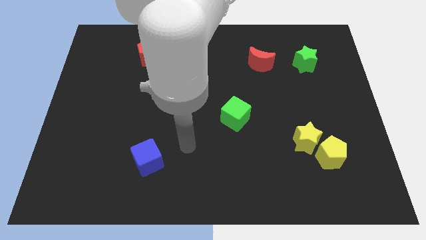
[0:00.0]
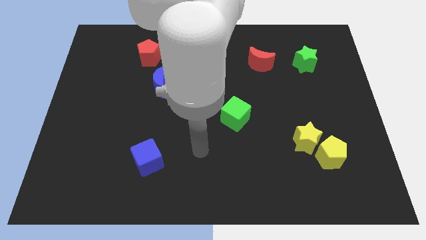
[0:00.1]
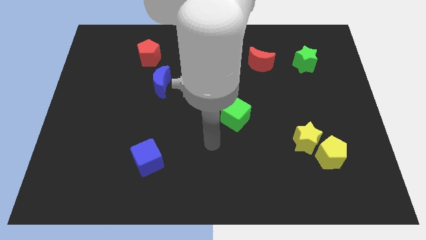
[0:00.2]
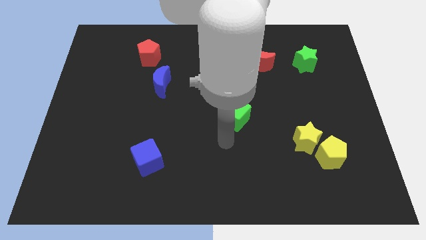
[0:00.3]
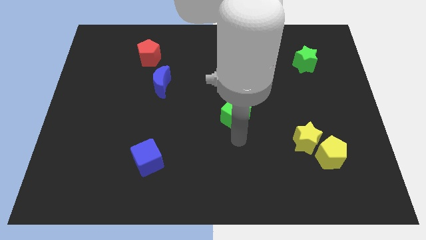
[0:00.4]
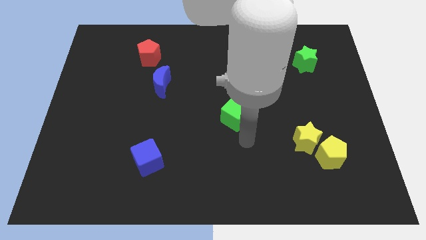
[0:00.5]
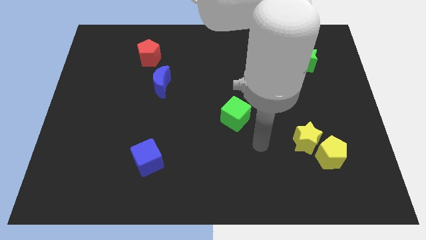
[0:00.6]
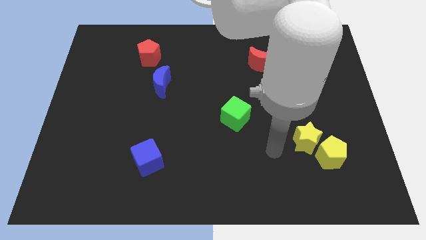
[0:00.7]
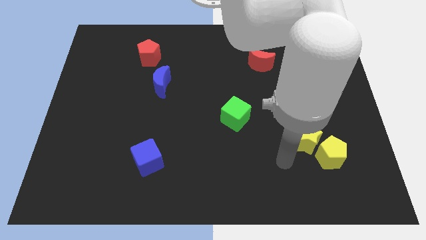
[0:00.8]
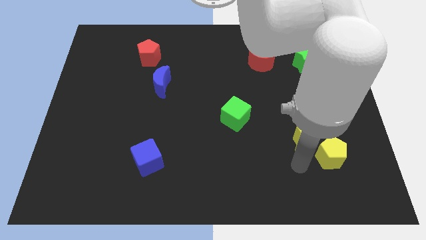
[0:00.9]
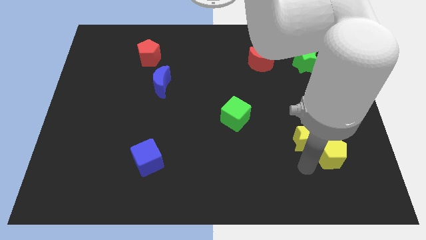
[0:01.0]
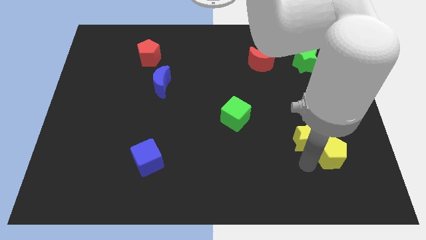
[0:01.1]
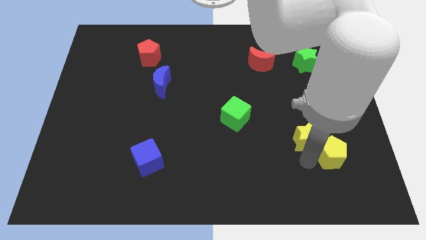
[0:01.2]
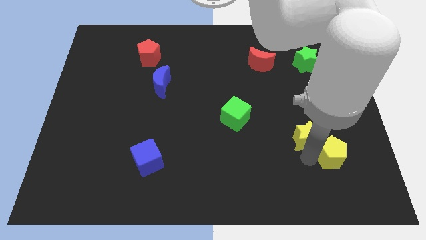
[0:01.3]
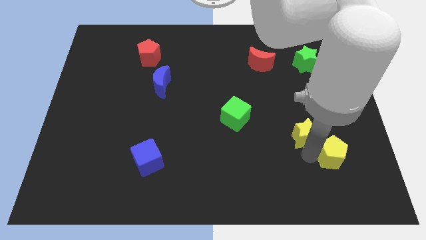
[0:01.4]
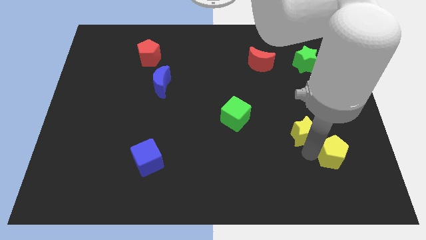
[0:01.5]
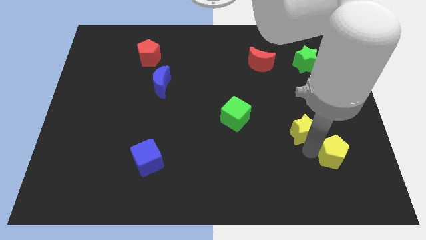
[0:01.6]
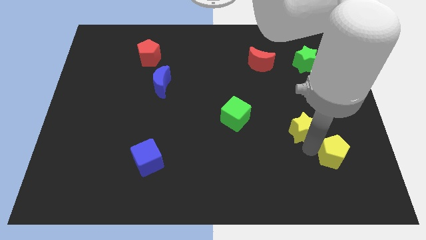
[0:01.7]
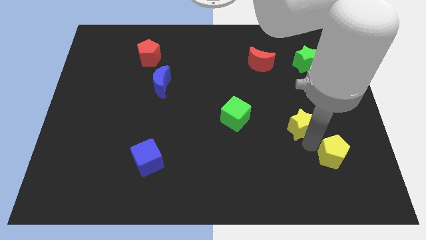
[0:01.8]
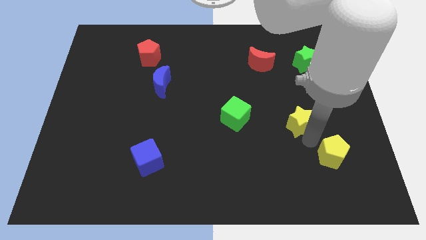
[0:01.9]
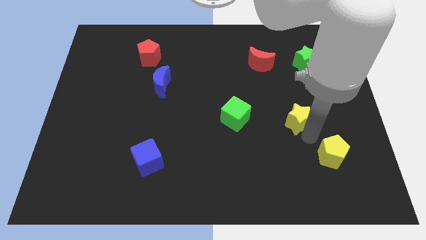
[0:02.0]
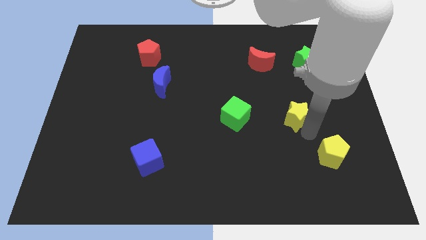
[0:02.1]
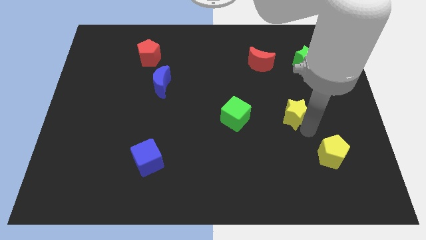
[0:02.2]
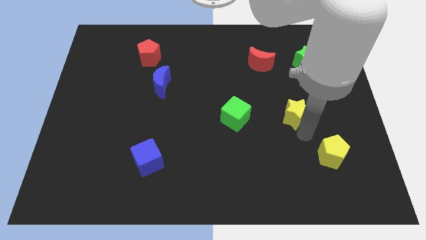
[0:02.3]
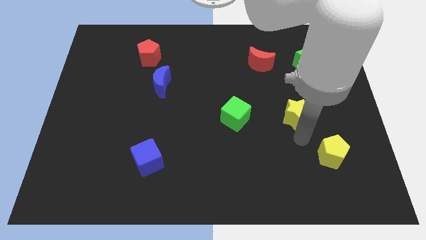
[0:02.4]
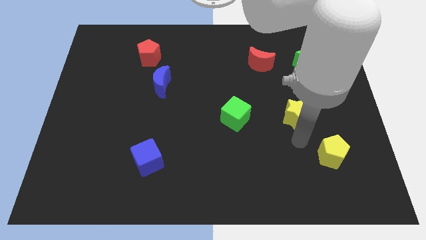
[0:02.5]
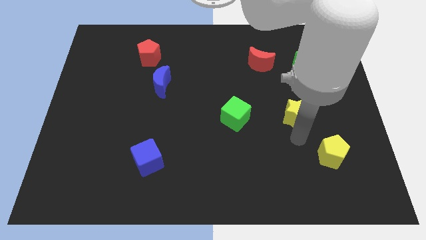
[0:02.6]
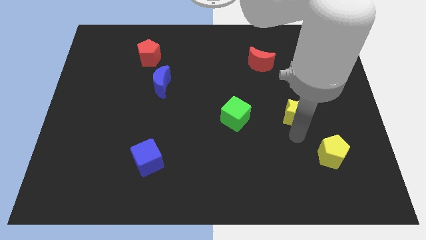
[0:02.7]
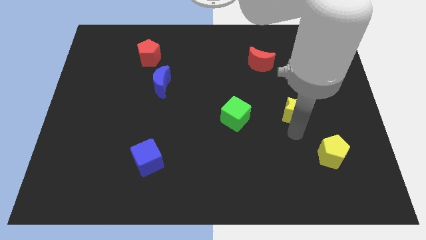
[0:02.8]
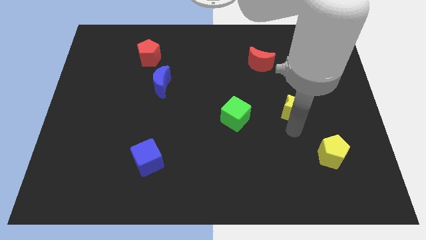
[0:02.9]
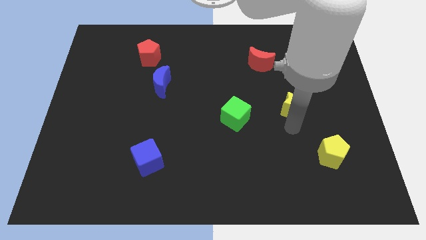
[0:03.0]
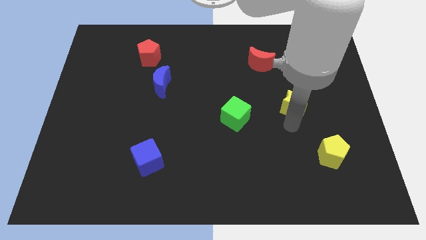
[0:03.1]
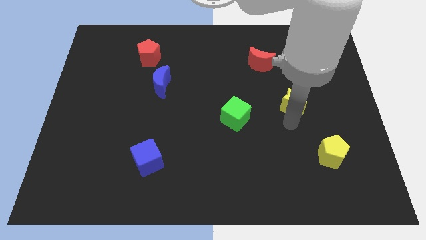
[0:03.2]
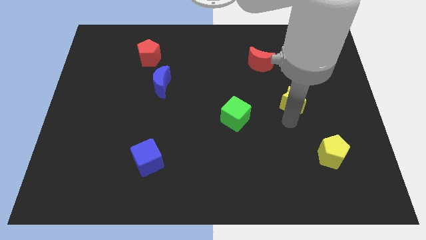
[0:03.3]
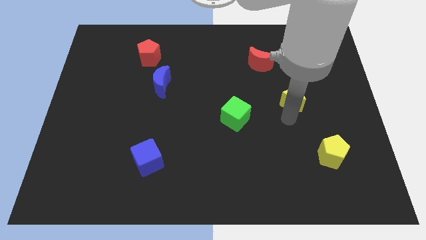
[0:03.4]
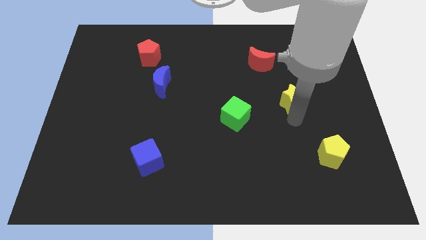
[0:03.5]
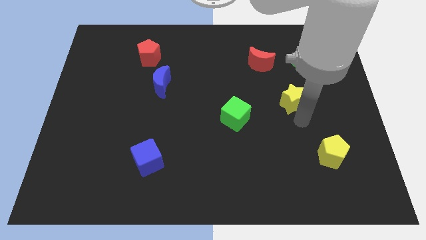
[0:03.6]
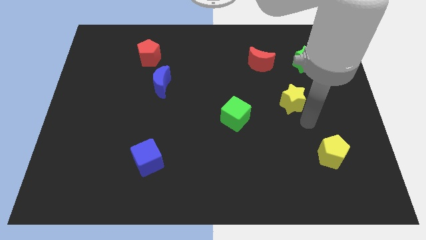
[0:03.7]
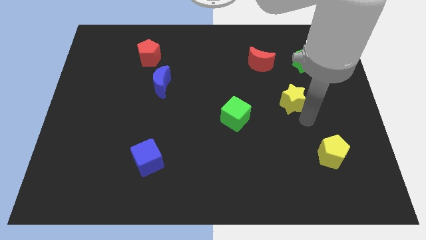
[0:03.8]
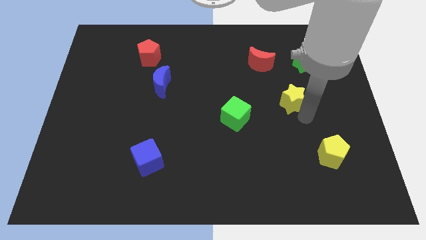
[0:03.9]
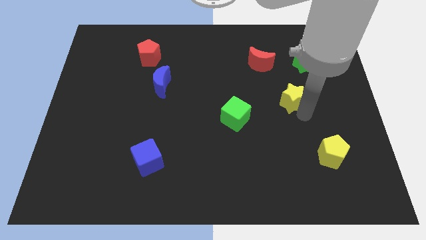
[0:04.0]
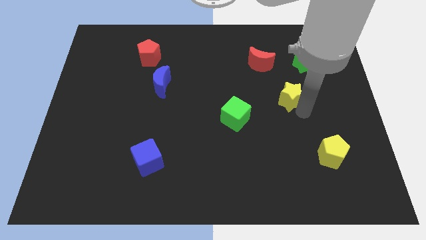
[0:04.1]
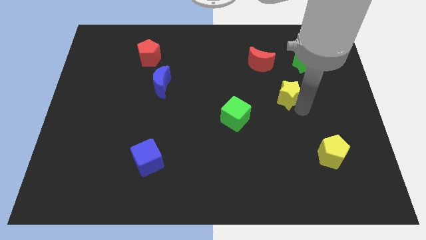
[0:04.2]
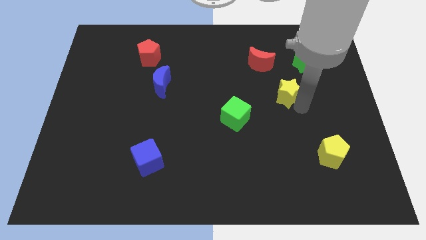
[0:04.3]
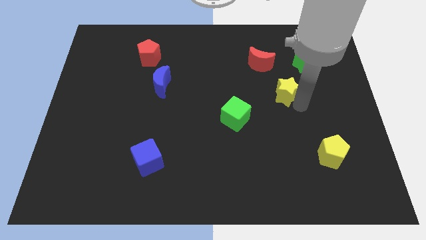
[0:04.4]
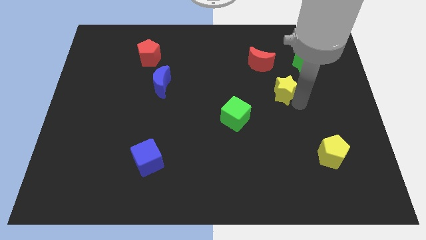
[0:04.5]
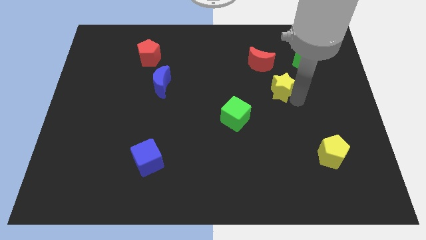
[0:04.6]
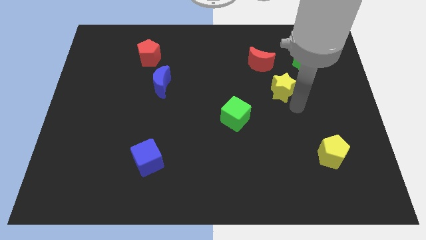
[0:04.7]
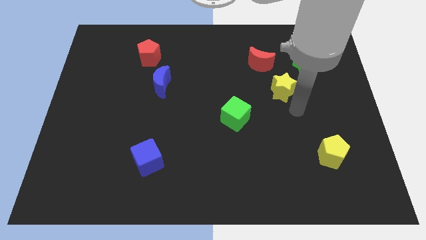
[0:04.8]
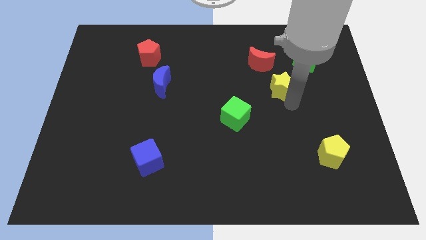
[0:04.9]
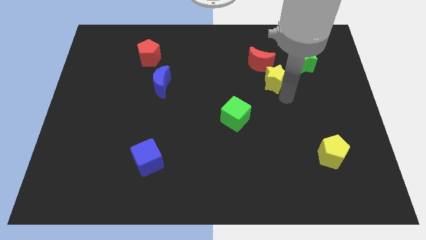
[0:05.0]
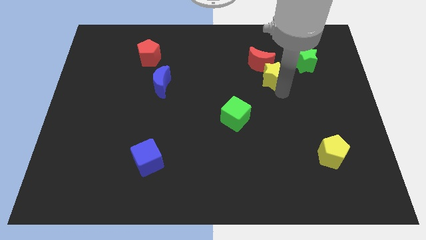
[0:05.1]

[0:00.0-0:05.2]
put the yellow star to the red moon

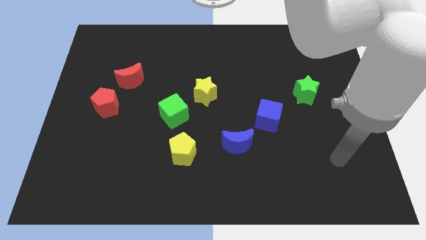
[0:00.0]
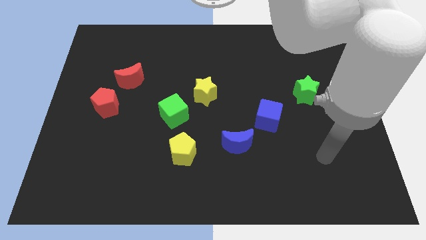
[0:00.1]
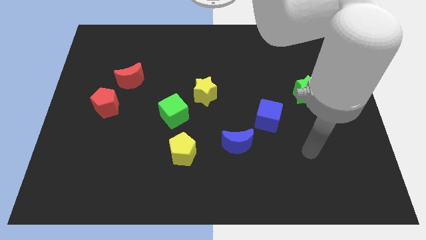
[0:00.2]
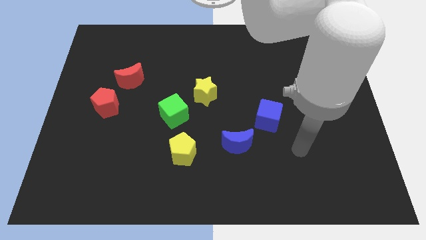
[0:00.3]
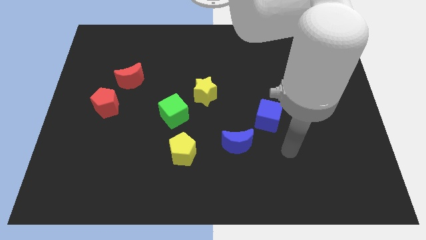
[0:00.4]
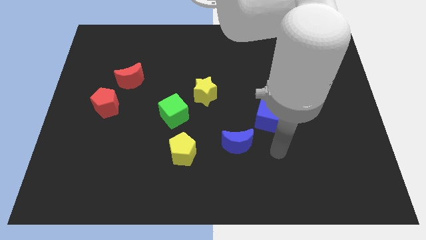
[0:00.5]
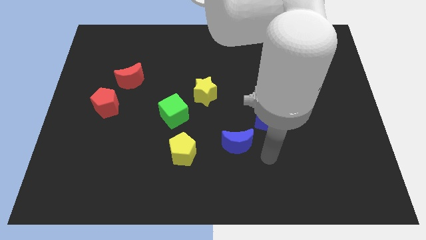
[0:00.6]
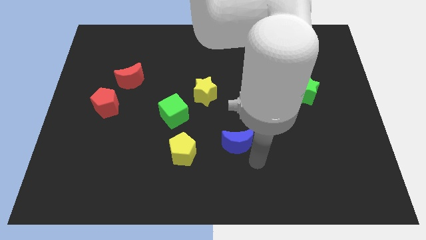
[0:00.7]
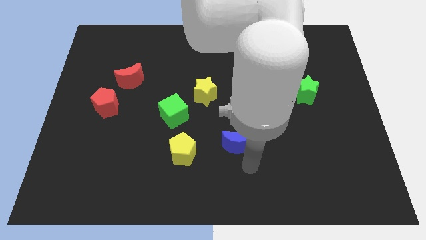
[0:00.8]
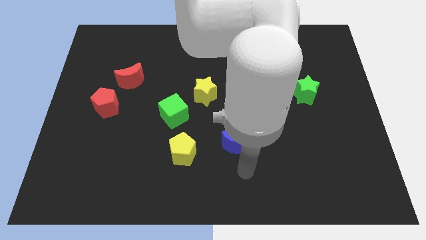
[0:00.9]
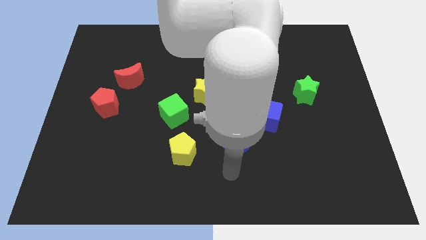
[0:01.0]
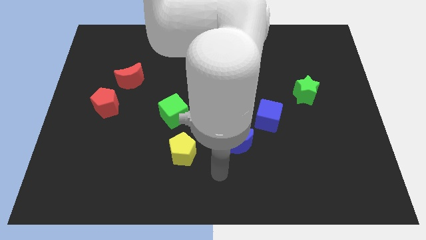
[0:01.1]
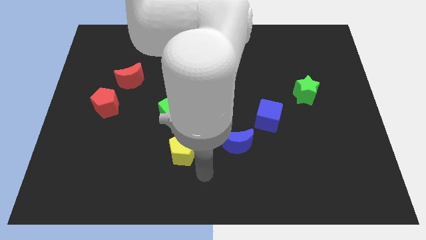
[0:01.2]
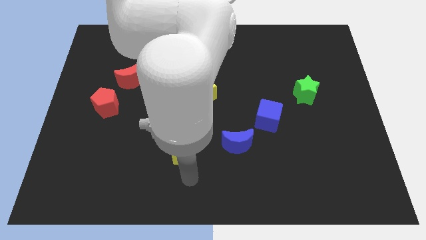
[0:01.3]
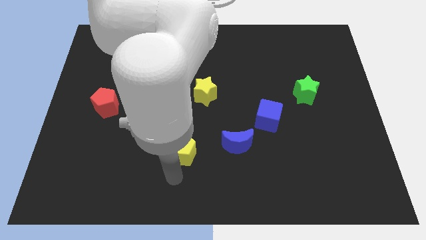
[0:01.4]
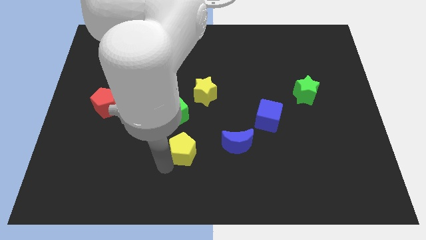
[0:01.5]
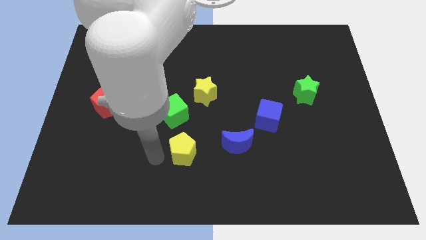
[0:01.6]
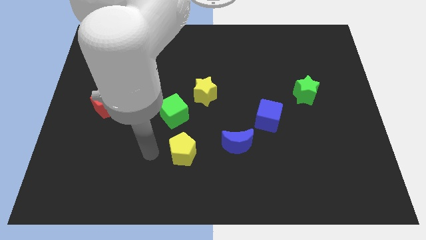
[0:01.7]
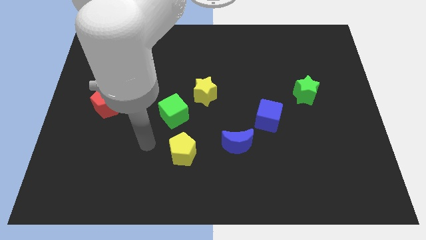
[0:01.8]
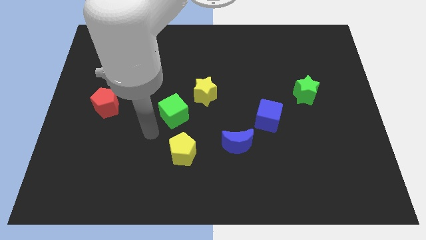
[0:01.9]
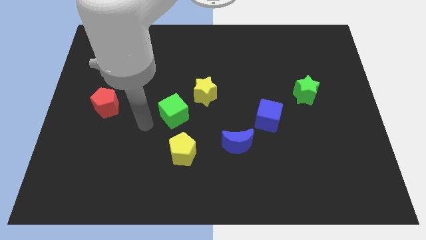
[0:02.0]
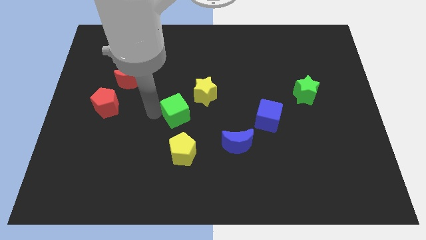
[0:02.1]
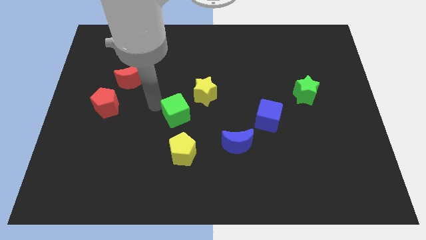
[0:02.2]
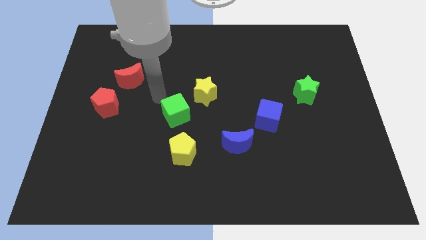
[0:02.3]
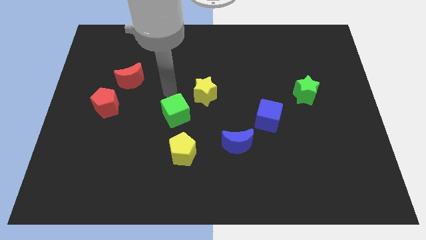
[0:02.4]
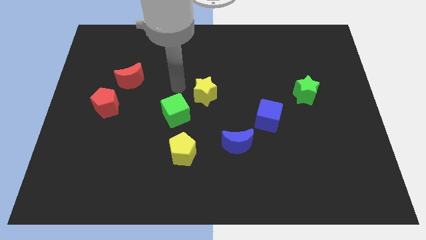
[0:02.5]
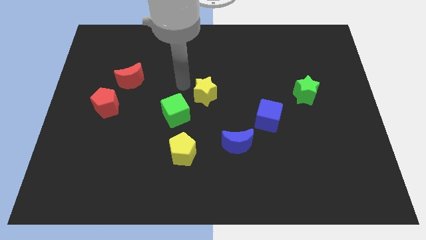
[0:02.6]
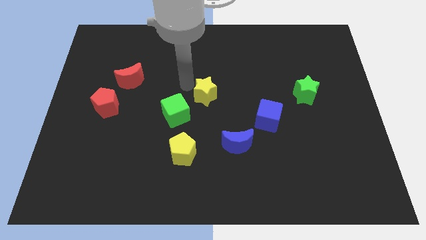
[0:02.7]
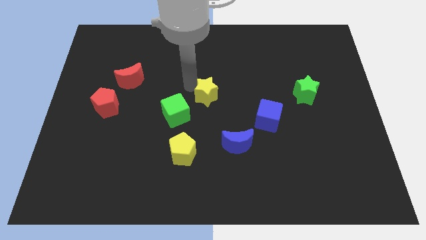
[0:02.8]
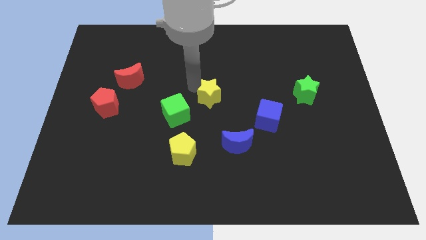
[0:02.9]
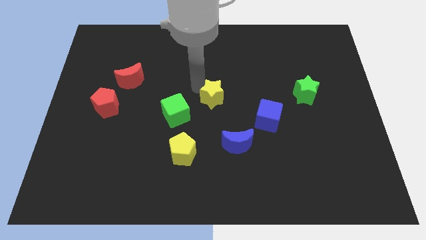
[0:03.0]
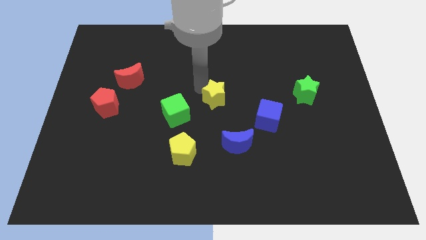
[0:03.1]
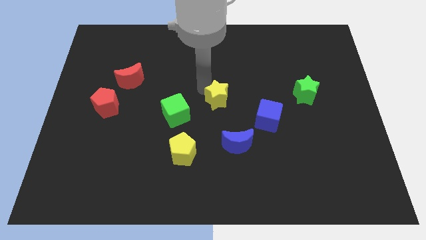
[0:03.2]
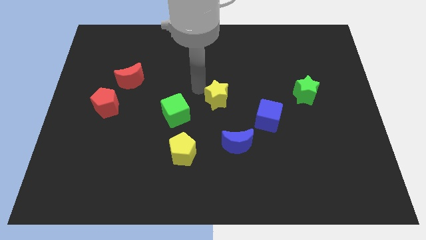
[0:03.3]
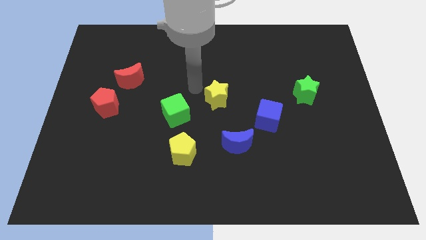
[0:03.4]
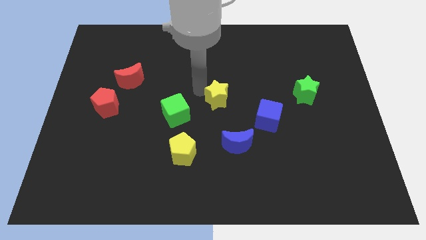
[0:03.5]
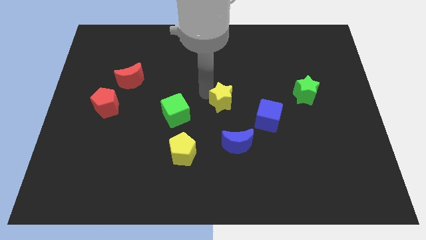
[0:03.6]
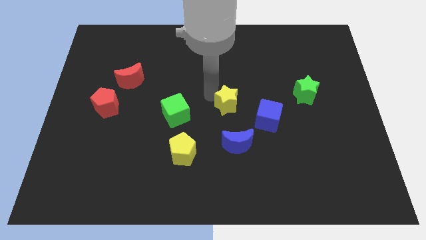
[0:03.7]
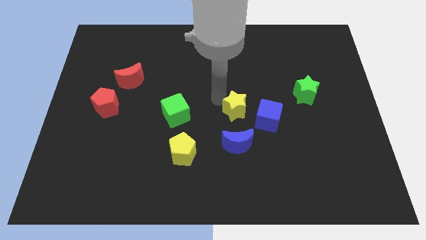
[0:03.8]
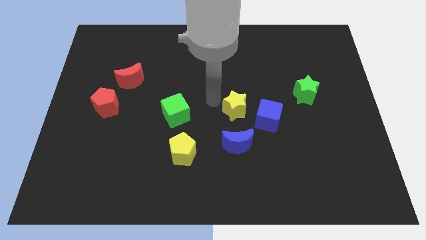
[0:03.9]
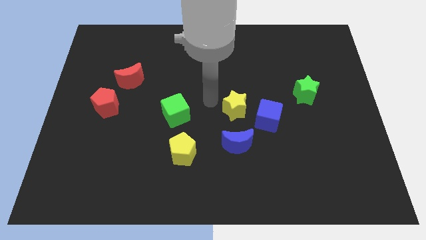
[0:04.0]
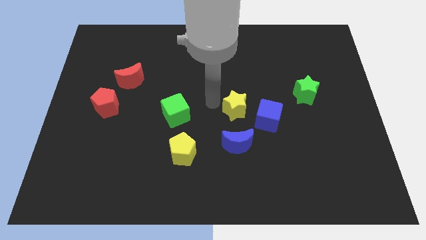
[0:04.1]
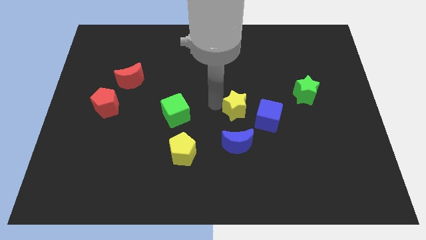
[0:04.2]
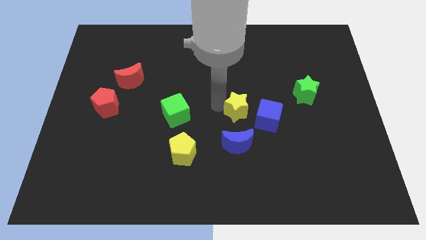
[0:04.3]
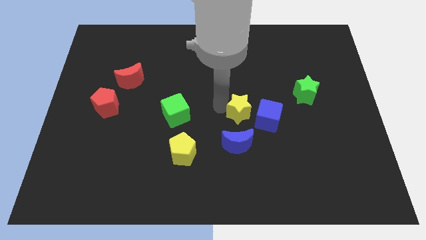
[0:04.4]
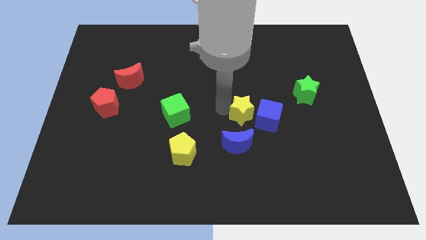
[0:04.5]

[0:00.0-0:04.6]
move the yellow star close to the blue cube
